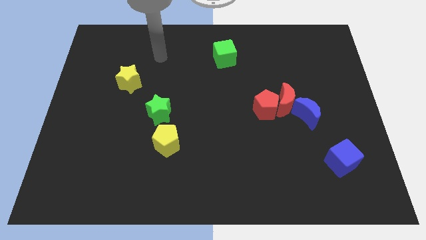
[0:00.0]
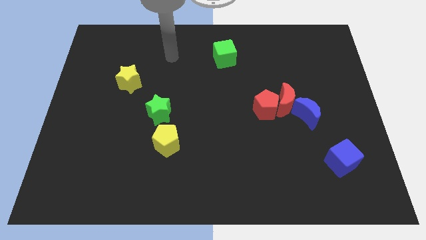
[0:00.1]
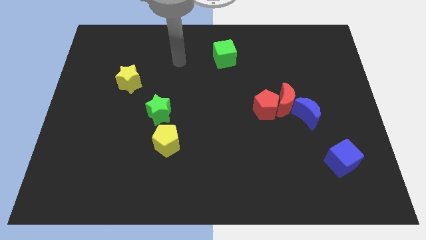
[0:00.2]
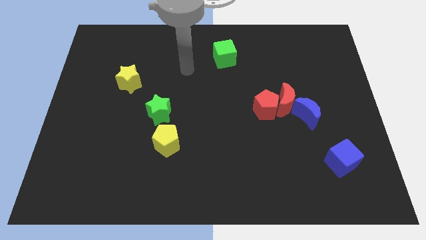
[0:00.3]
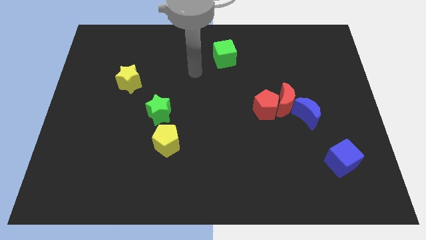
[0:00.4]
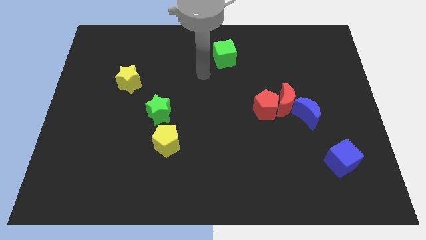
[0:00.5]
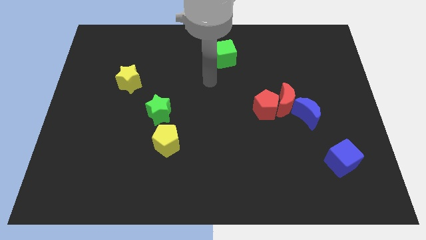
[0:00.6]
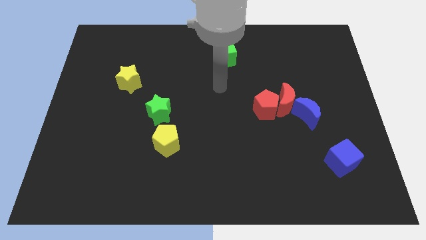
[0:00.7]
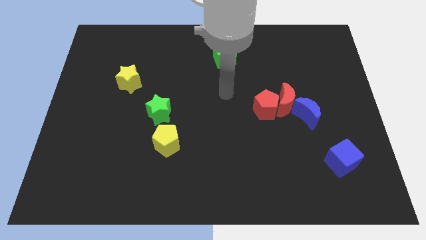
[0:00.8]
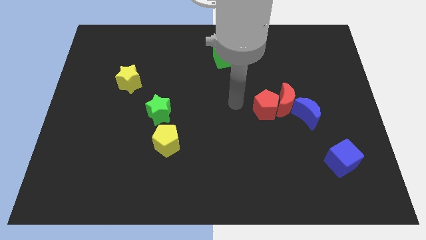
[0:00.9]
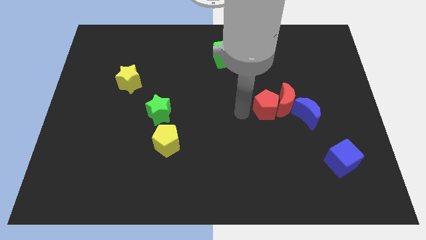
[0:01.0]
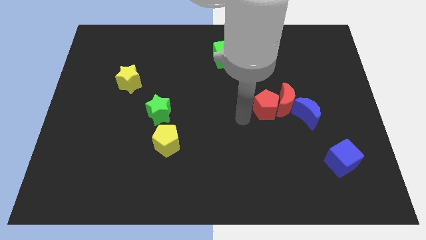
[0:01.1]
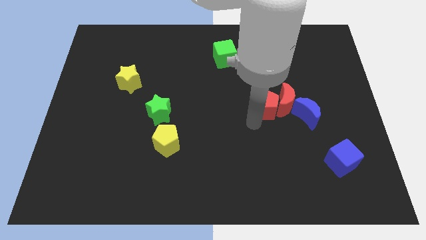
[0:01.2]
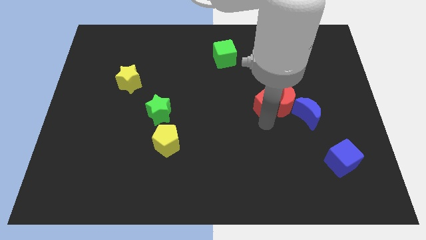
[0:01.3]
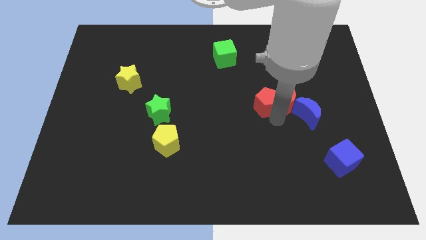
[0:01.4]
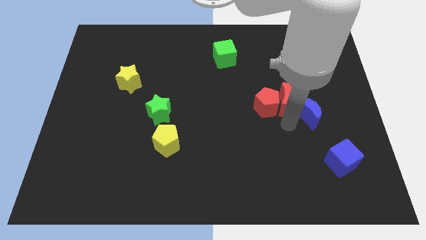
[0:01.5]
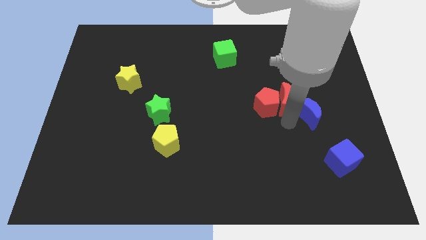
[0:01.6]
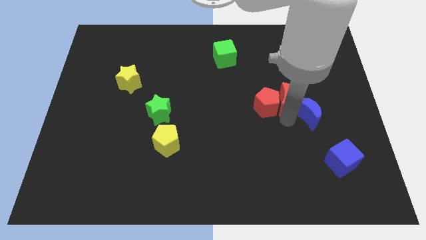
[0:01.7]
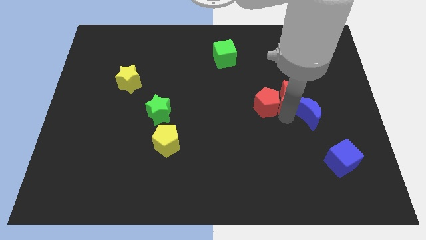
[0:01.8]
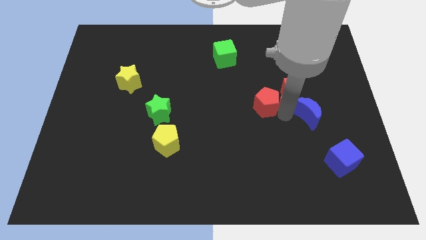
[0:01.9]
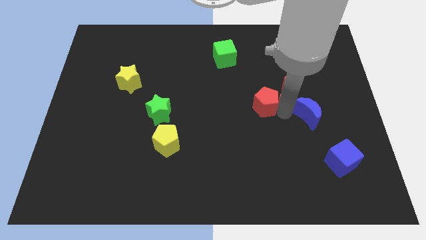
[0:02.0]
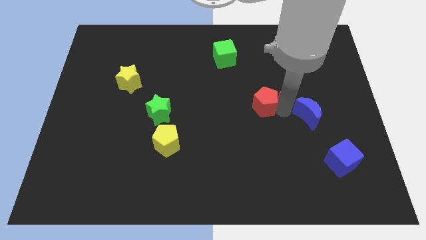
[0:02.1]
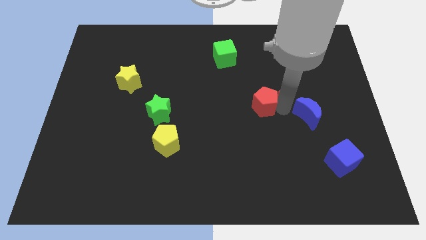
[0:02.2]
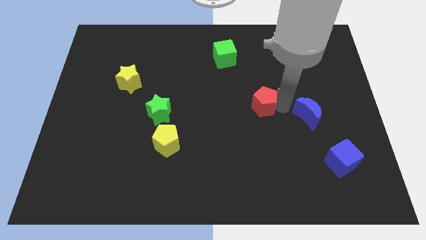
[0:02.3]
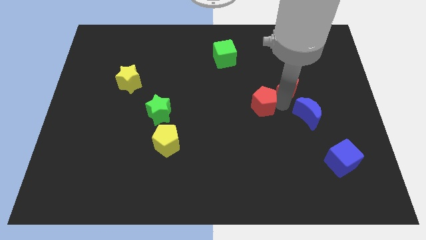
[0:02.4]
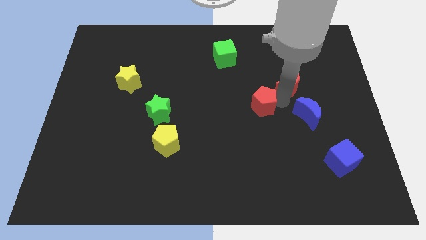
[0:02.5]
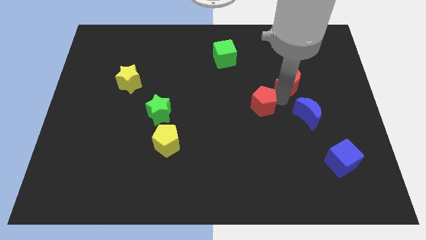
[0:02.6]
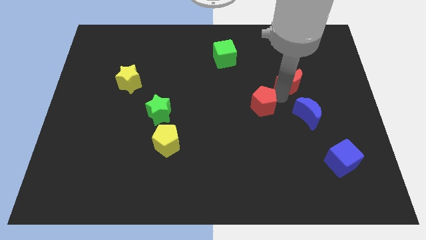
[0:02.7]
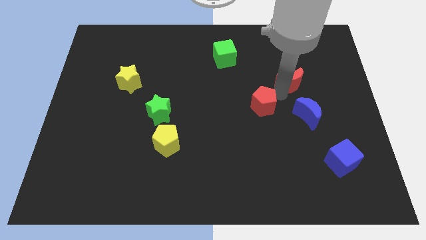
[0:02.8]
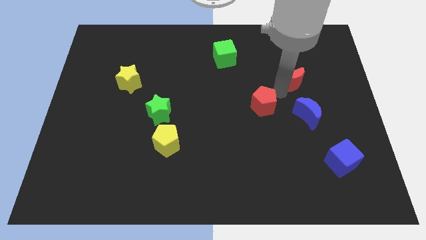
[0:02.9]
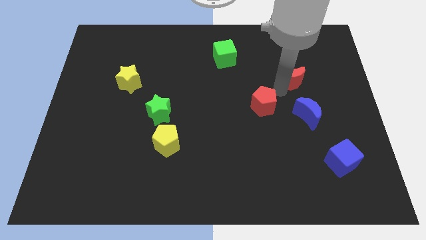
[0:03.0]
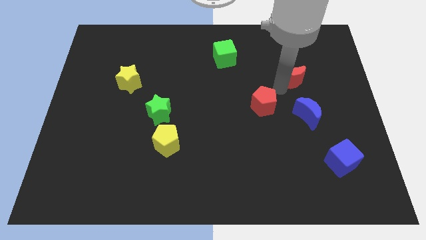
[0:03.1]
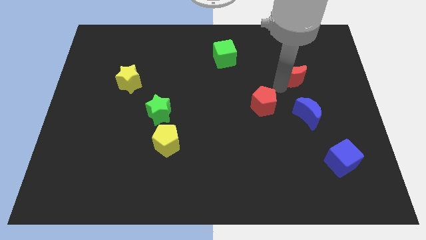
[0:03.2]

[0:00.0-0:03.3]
pull the red moon apart from the red pentagon and blue moon

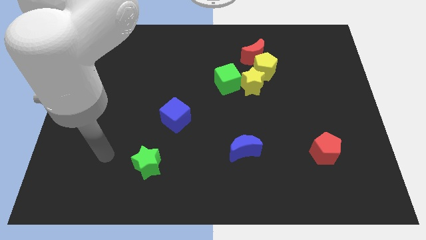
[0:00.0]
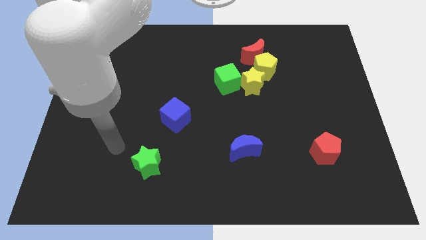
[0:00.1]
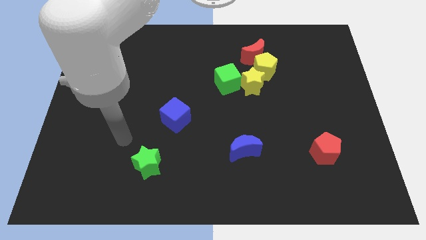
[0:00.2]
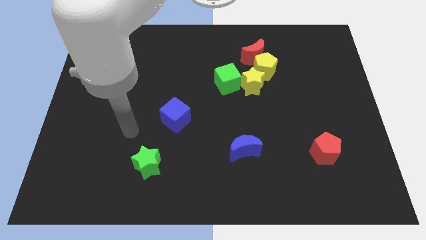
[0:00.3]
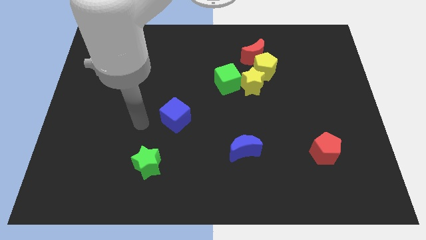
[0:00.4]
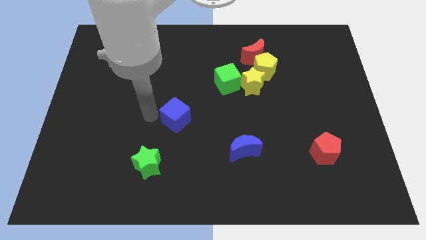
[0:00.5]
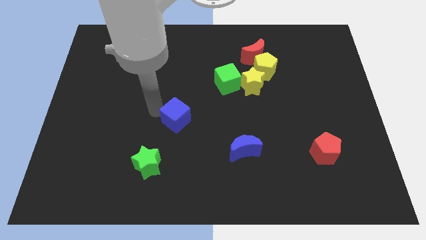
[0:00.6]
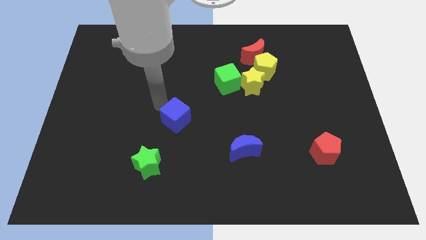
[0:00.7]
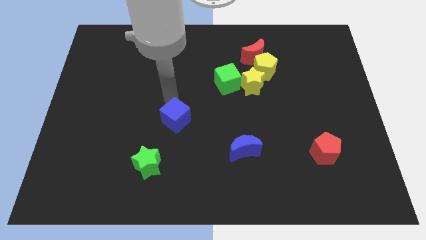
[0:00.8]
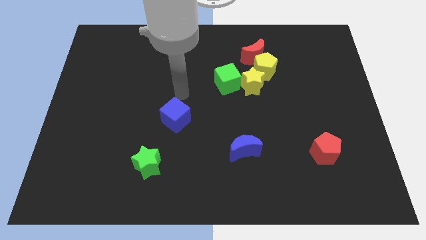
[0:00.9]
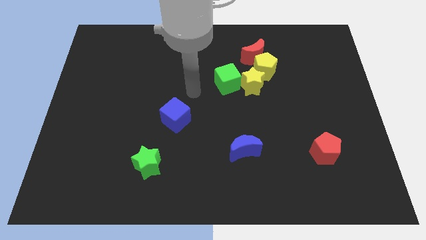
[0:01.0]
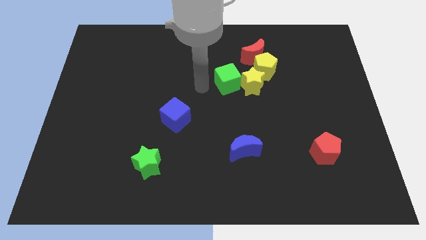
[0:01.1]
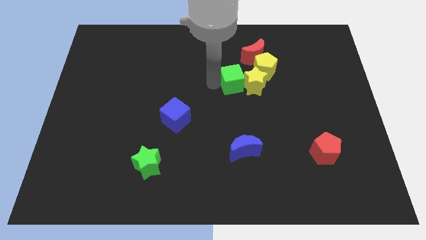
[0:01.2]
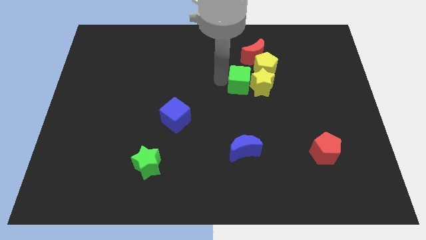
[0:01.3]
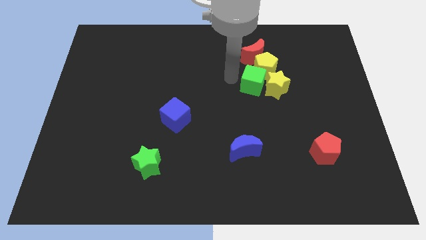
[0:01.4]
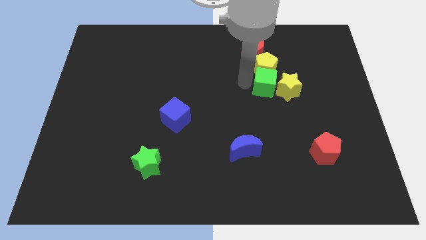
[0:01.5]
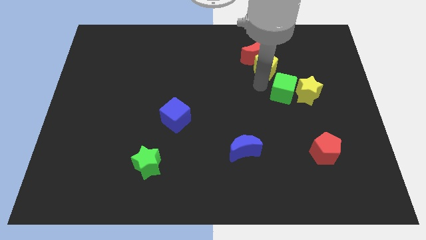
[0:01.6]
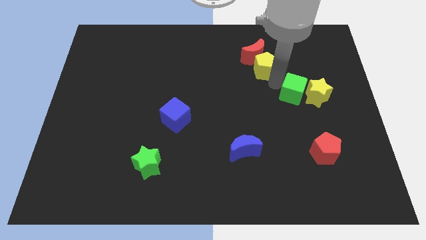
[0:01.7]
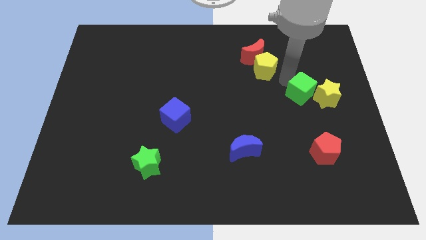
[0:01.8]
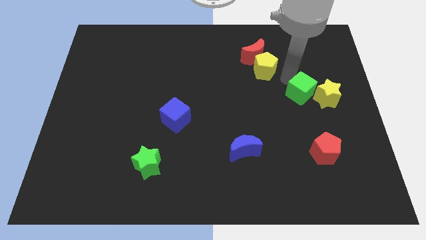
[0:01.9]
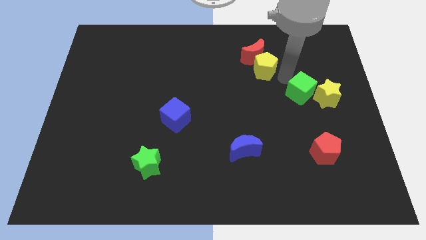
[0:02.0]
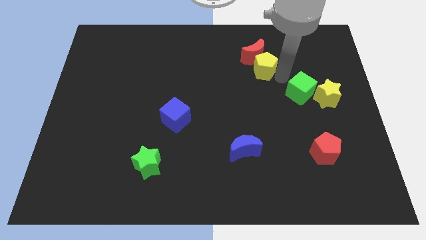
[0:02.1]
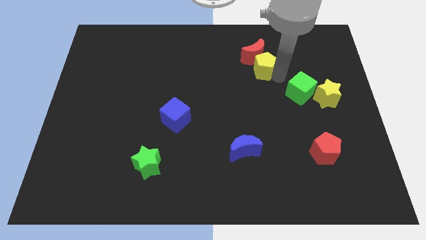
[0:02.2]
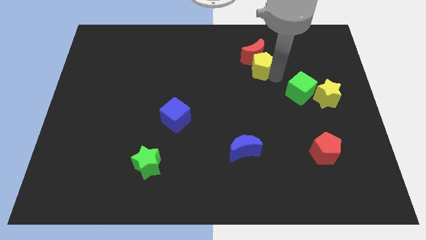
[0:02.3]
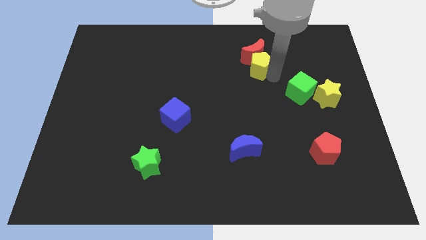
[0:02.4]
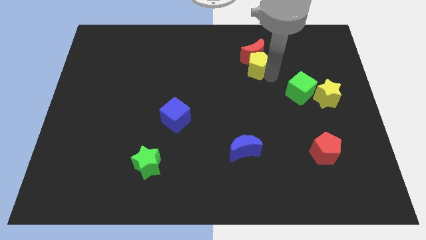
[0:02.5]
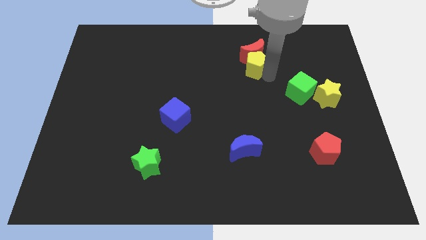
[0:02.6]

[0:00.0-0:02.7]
separate the yellow pentagon from the red moon, yellow star, and green cube

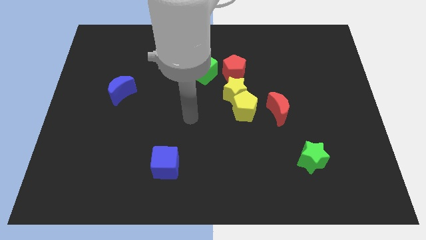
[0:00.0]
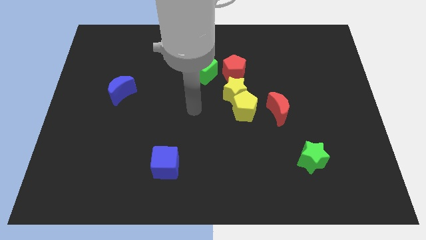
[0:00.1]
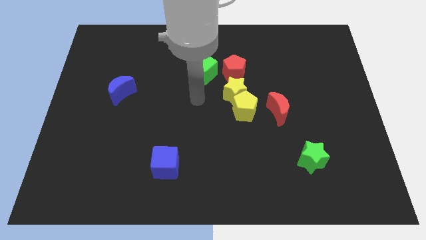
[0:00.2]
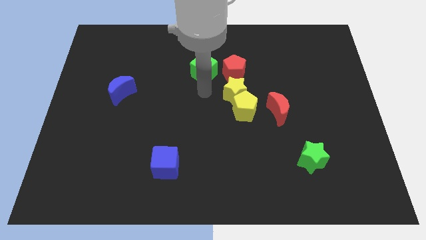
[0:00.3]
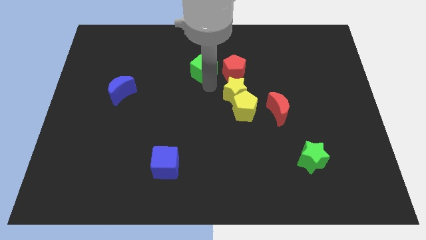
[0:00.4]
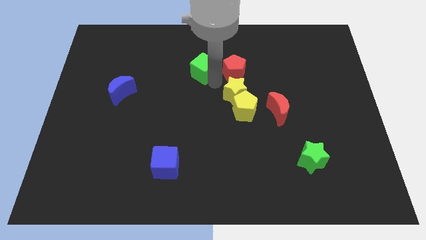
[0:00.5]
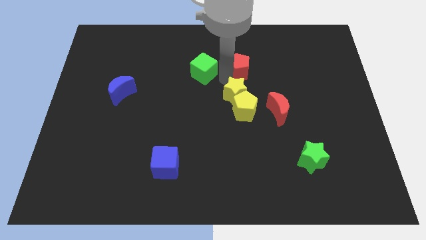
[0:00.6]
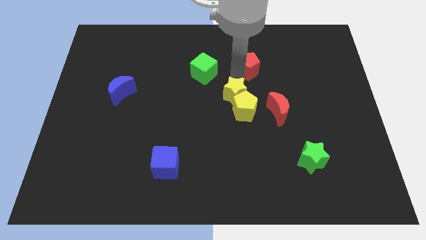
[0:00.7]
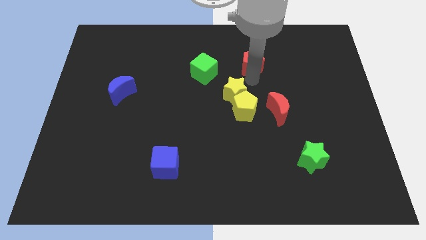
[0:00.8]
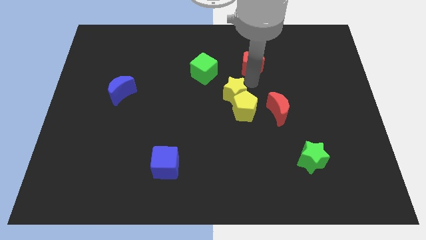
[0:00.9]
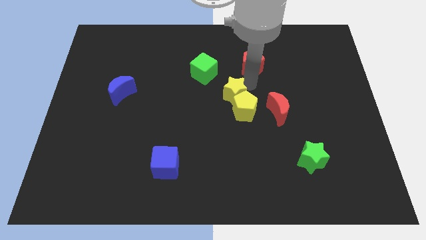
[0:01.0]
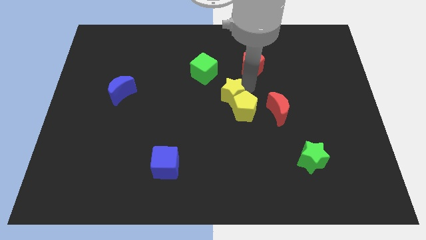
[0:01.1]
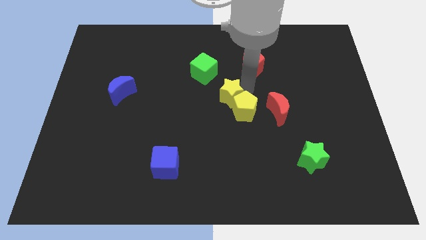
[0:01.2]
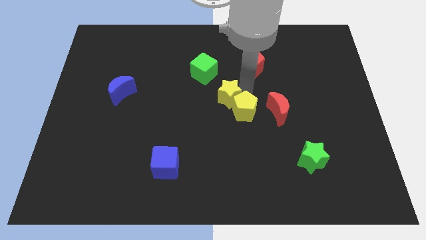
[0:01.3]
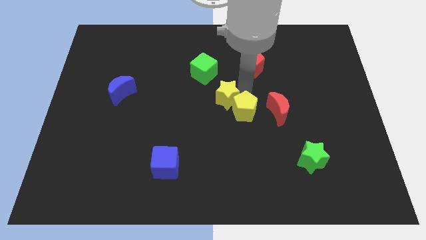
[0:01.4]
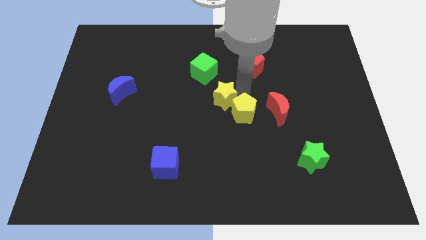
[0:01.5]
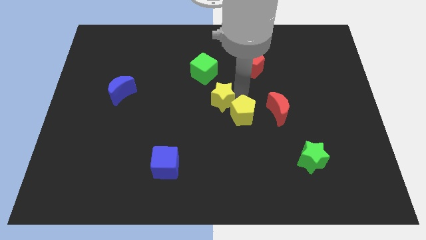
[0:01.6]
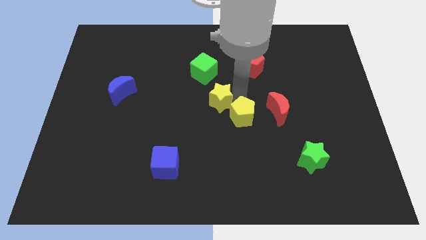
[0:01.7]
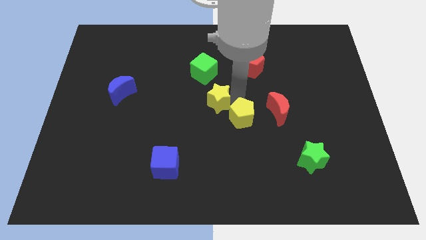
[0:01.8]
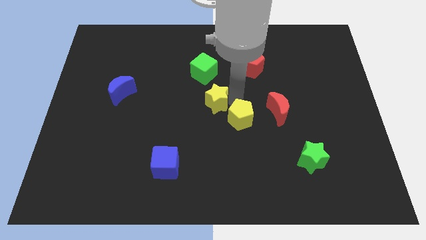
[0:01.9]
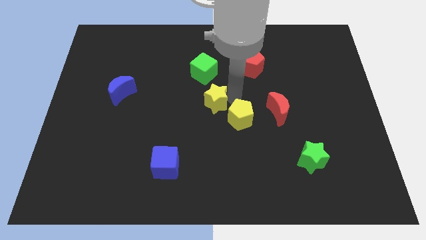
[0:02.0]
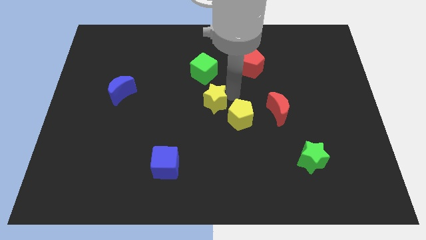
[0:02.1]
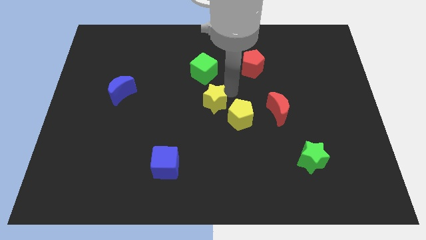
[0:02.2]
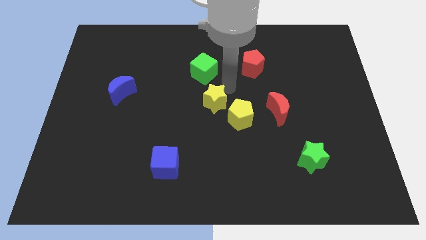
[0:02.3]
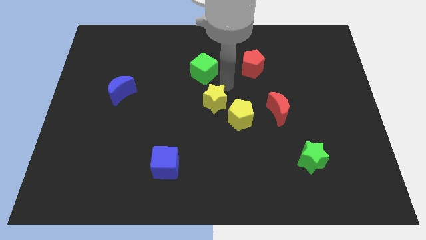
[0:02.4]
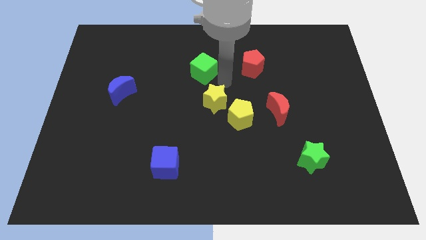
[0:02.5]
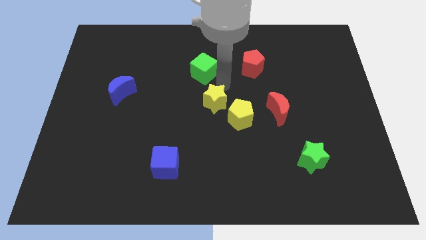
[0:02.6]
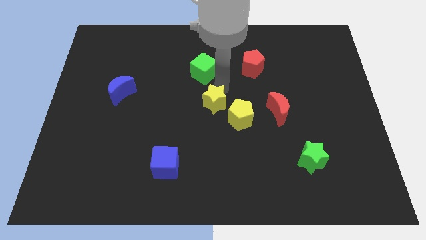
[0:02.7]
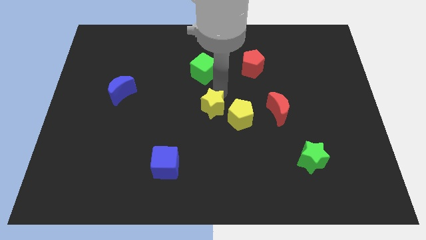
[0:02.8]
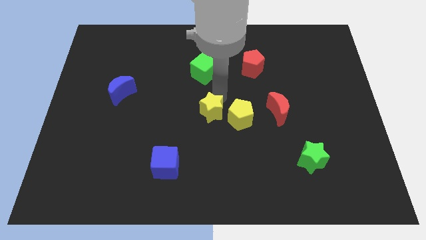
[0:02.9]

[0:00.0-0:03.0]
move the yellow star away from the yellow pentagon and red pentagon

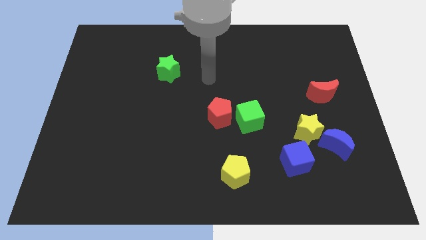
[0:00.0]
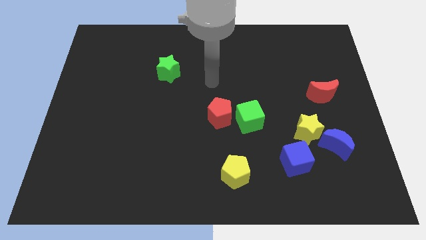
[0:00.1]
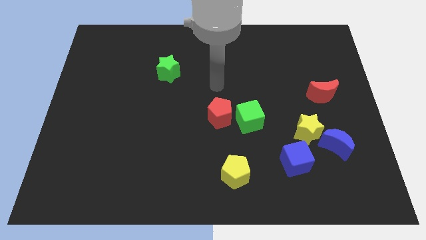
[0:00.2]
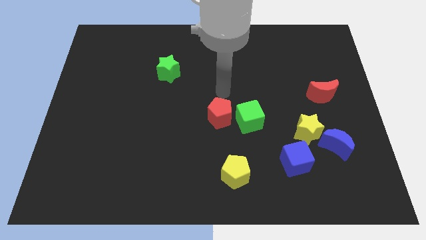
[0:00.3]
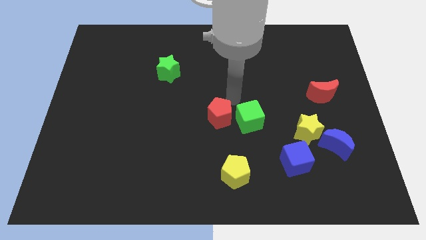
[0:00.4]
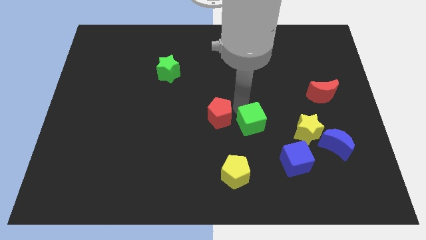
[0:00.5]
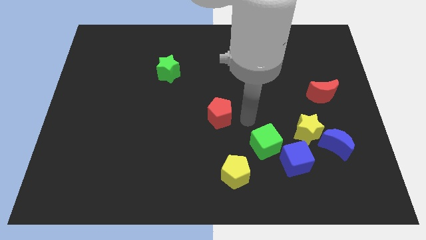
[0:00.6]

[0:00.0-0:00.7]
move the red pentagon away from the green cube
